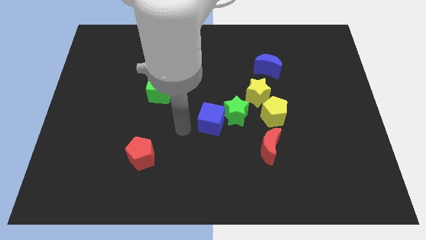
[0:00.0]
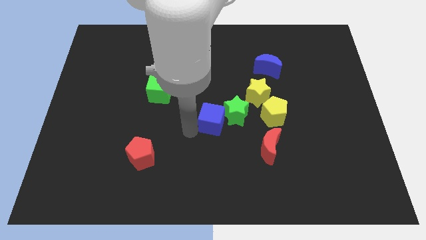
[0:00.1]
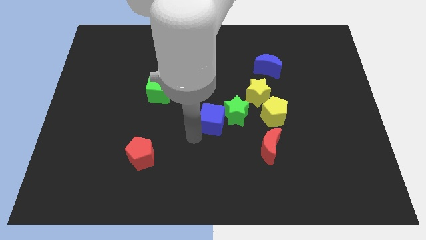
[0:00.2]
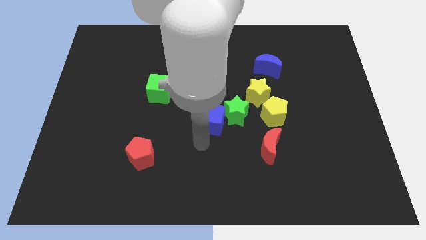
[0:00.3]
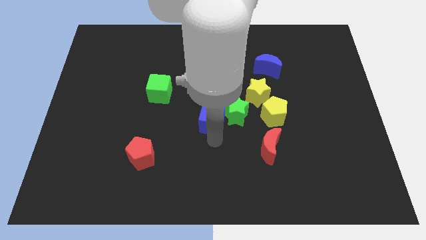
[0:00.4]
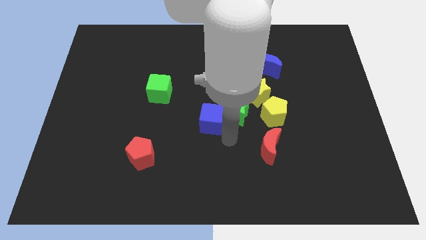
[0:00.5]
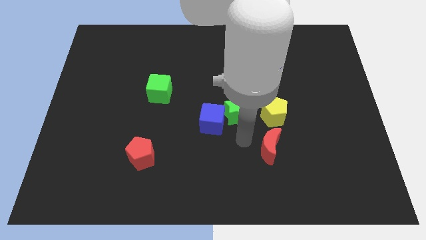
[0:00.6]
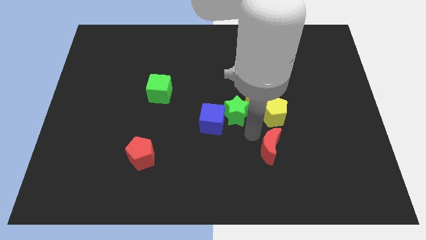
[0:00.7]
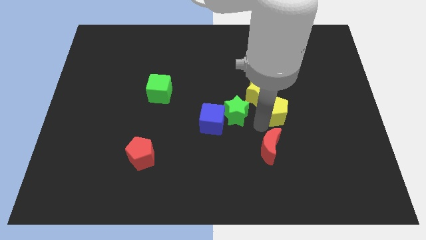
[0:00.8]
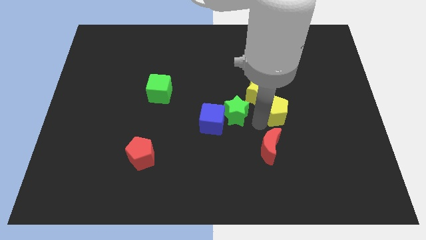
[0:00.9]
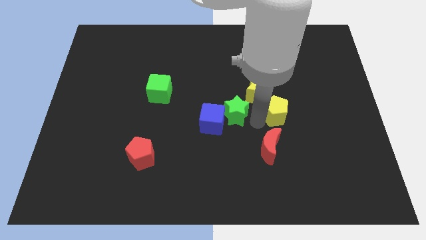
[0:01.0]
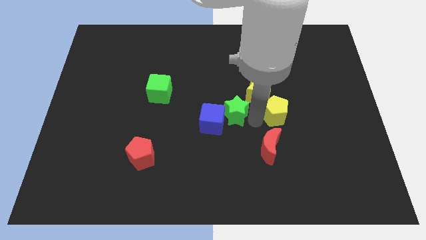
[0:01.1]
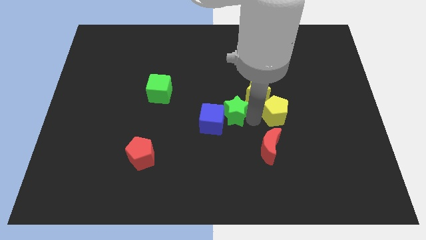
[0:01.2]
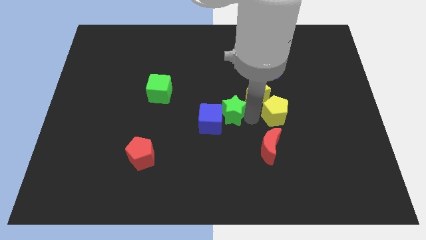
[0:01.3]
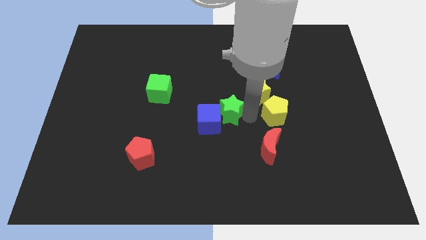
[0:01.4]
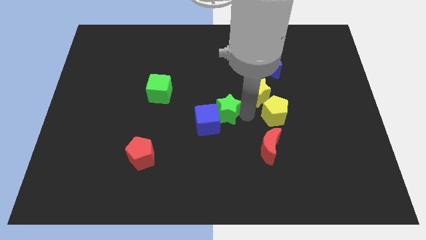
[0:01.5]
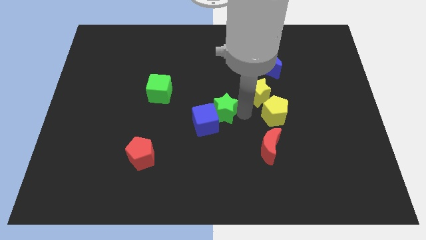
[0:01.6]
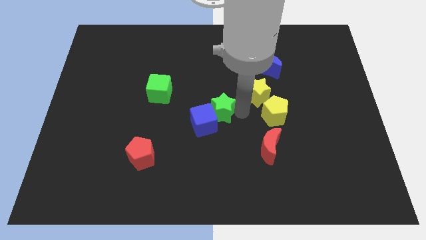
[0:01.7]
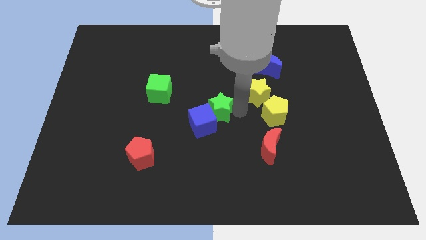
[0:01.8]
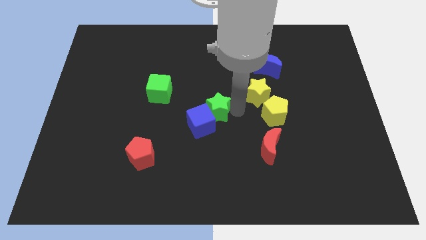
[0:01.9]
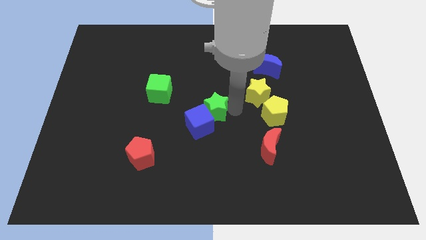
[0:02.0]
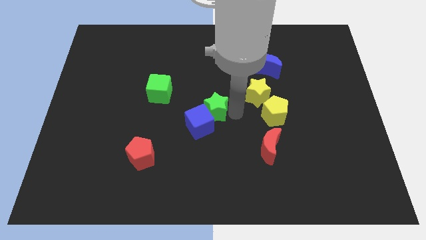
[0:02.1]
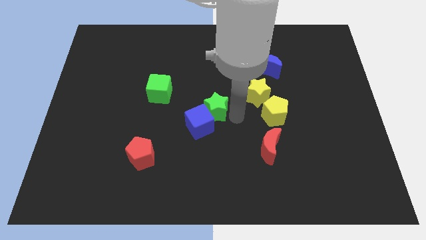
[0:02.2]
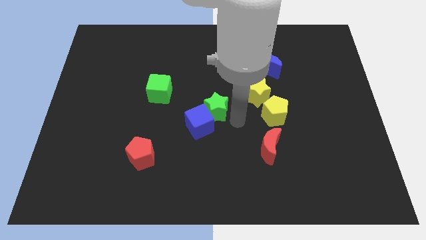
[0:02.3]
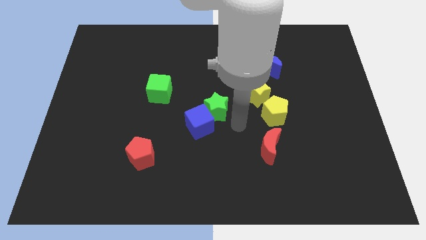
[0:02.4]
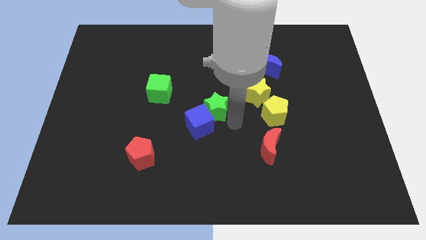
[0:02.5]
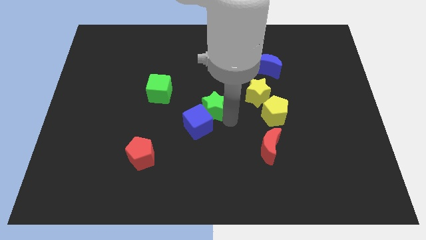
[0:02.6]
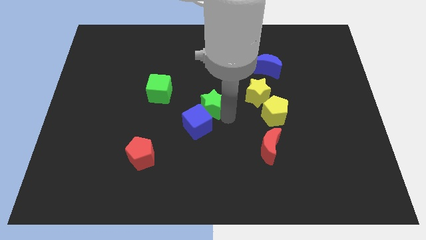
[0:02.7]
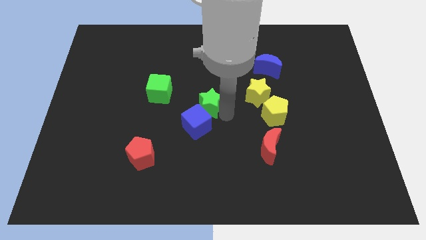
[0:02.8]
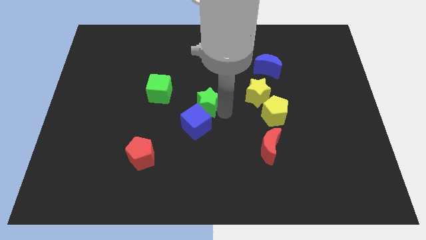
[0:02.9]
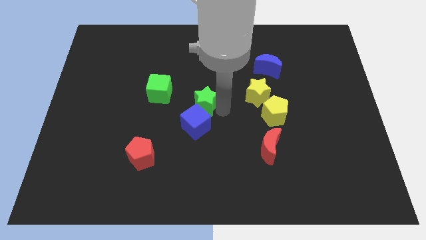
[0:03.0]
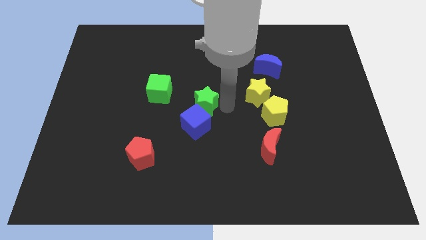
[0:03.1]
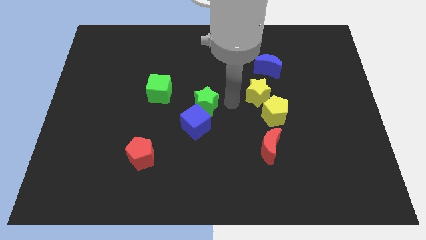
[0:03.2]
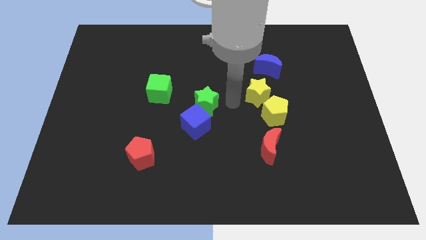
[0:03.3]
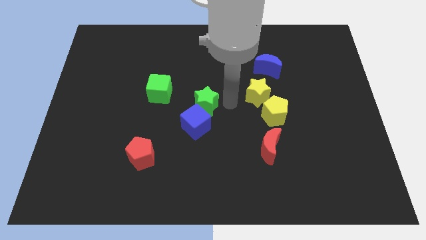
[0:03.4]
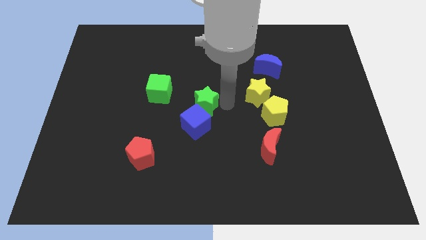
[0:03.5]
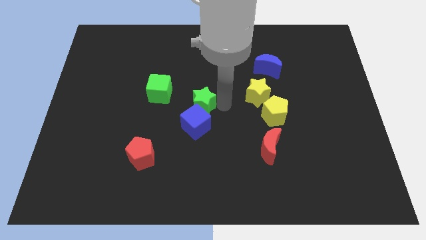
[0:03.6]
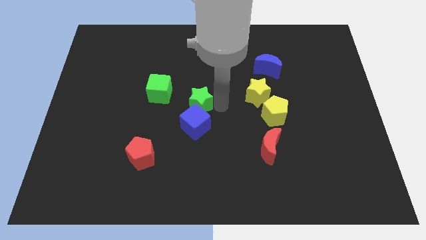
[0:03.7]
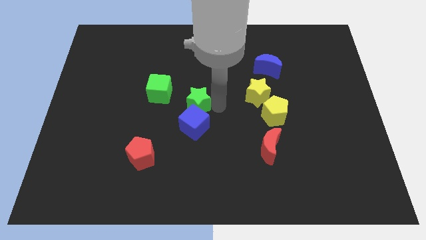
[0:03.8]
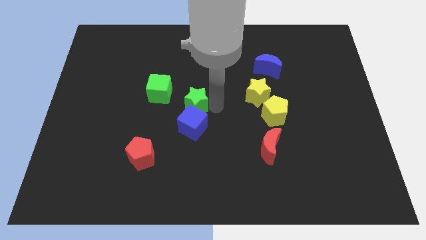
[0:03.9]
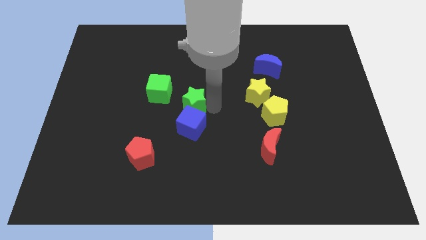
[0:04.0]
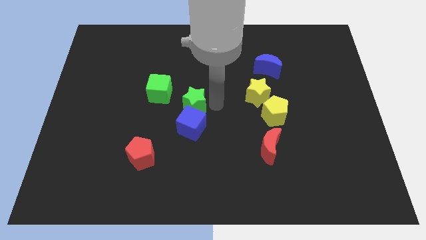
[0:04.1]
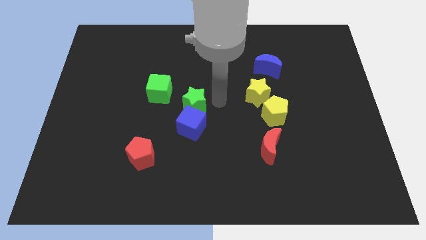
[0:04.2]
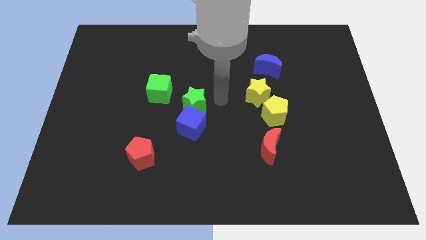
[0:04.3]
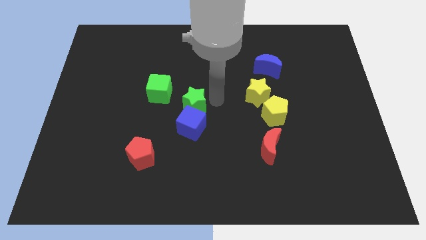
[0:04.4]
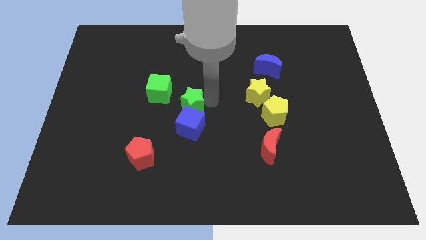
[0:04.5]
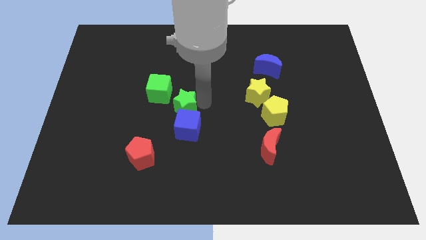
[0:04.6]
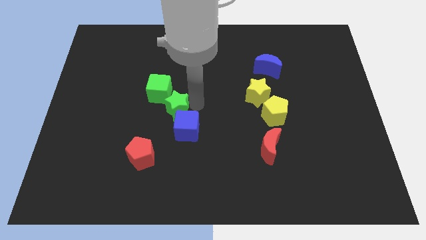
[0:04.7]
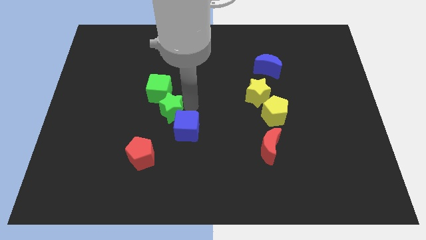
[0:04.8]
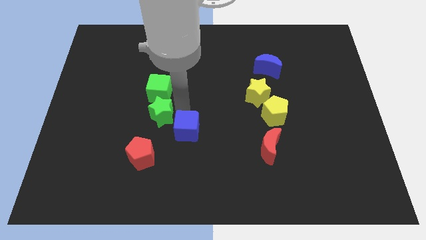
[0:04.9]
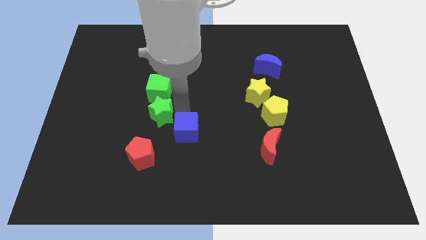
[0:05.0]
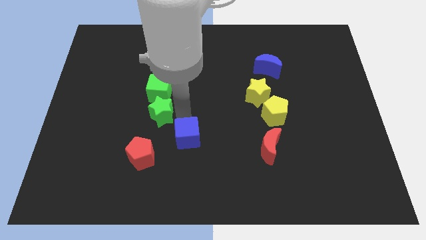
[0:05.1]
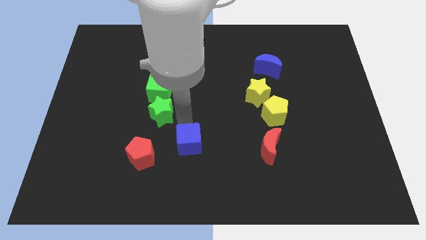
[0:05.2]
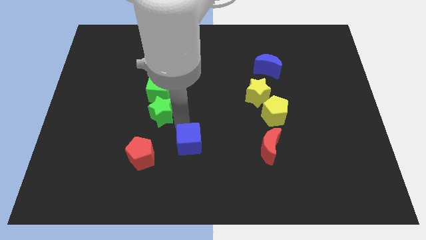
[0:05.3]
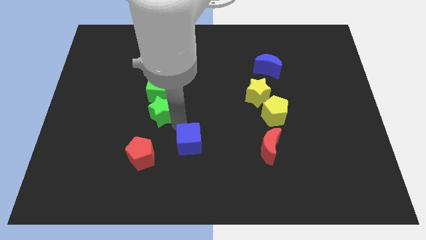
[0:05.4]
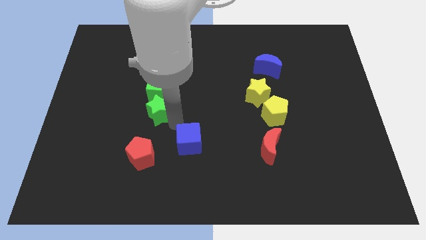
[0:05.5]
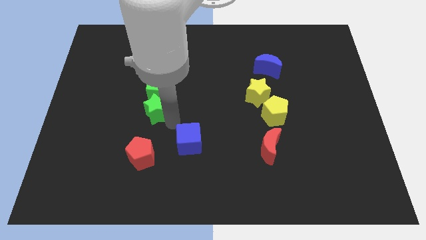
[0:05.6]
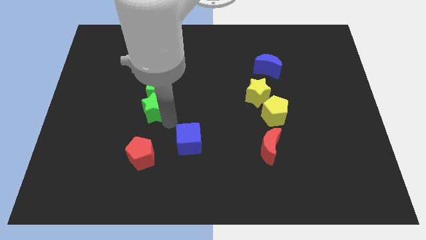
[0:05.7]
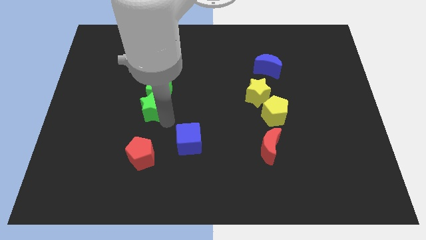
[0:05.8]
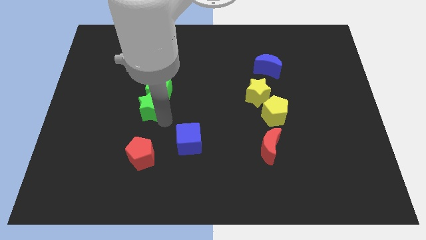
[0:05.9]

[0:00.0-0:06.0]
push the green star left

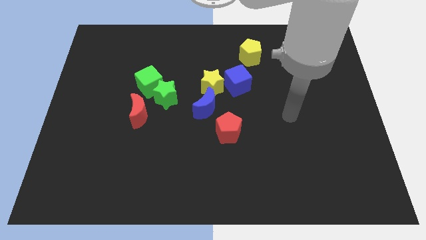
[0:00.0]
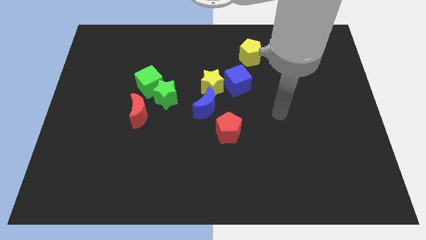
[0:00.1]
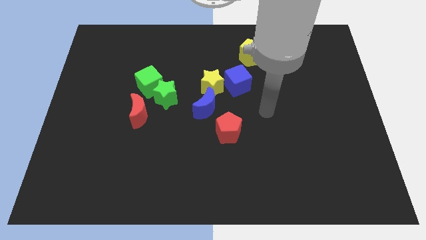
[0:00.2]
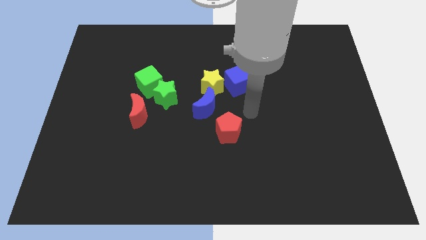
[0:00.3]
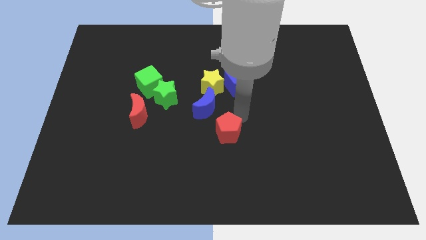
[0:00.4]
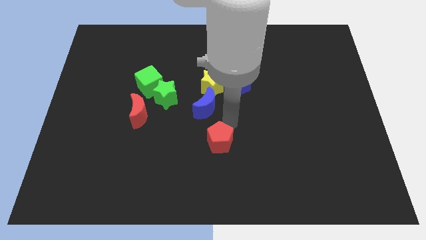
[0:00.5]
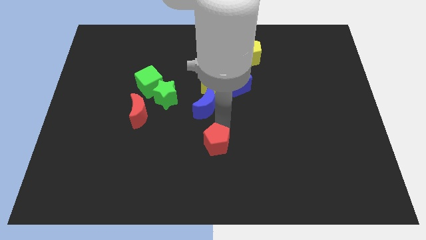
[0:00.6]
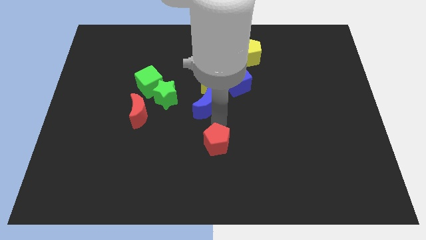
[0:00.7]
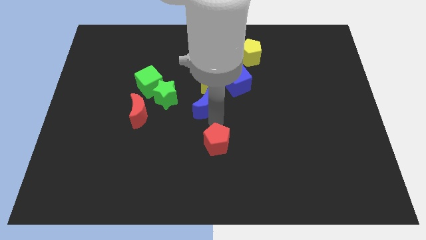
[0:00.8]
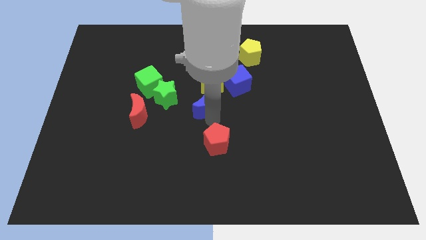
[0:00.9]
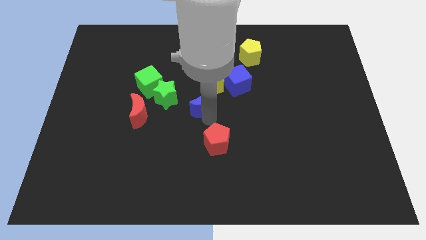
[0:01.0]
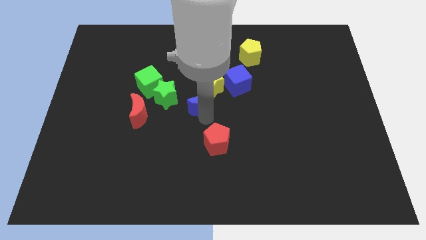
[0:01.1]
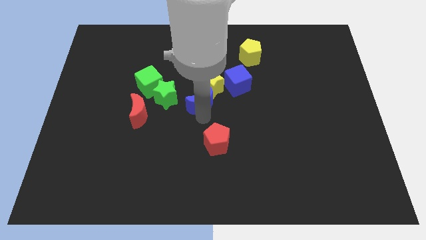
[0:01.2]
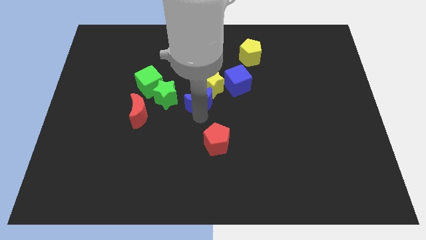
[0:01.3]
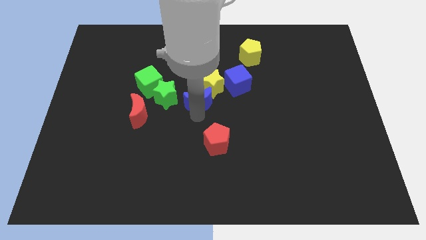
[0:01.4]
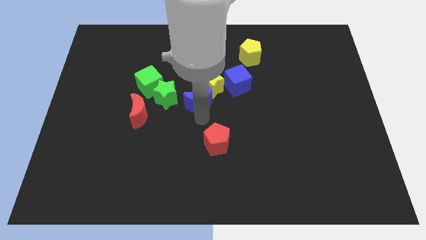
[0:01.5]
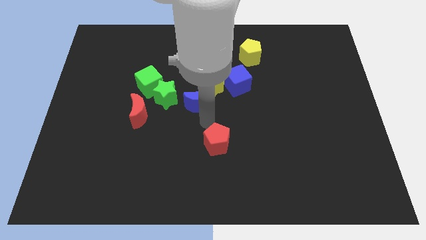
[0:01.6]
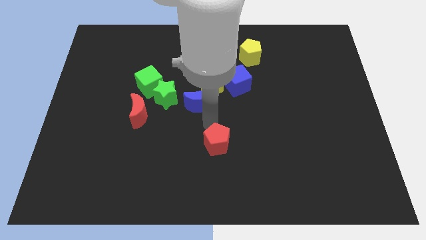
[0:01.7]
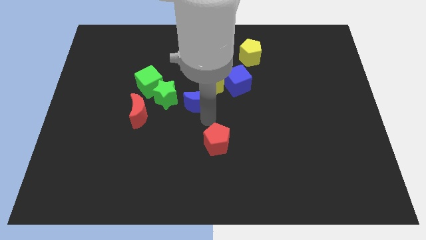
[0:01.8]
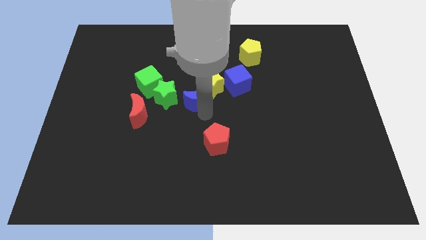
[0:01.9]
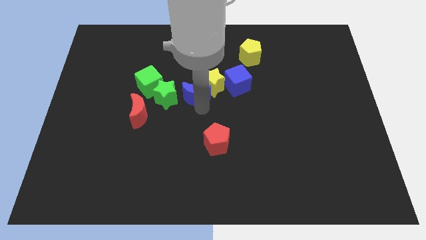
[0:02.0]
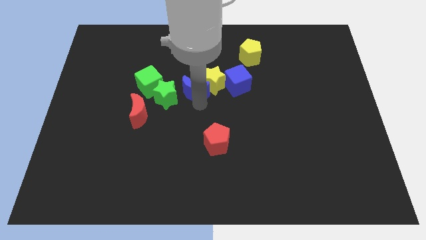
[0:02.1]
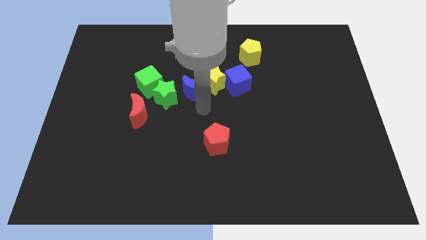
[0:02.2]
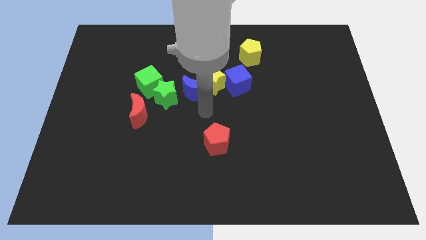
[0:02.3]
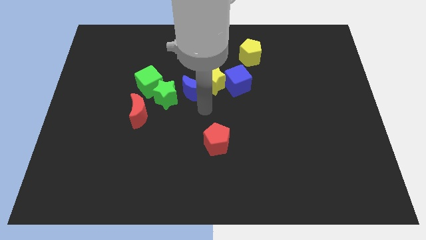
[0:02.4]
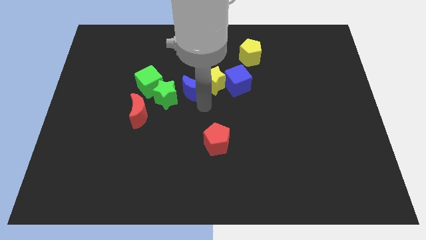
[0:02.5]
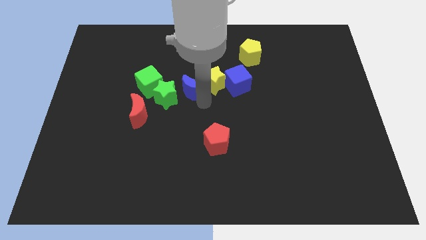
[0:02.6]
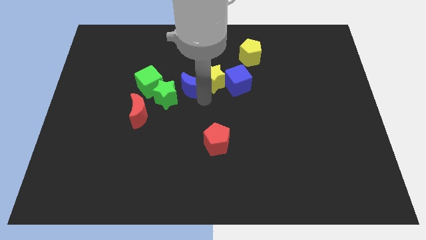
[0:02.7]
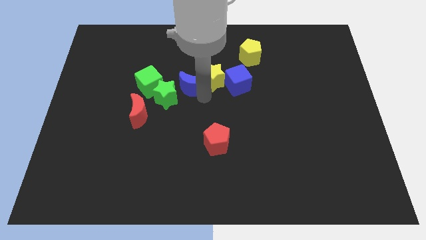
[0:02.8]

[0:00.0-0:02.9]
push the blue moon somewhat up and to the left
